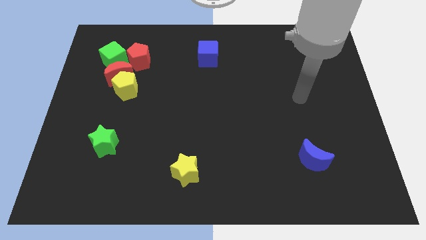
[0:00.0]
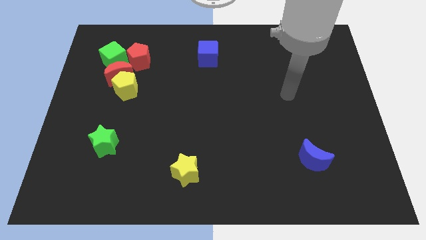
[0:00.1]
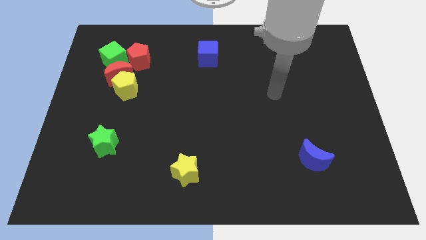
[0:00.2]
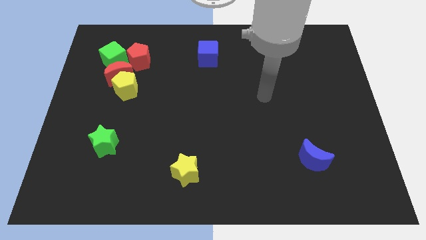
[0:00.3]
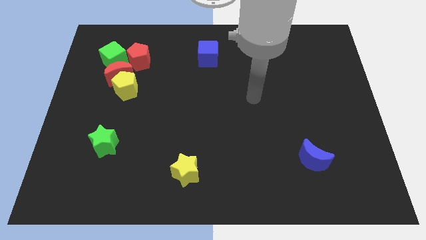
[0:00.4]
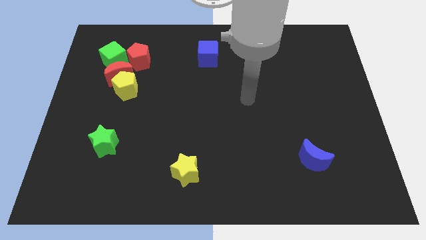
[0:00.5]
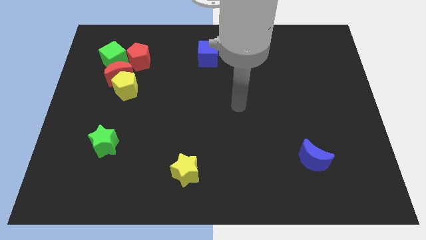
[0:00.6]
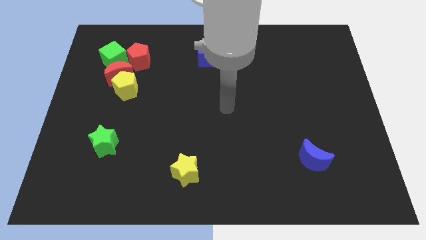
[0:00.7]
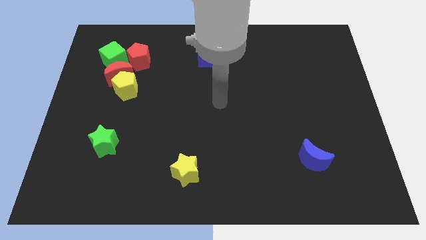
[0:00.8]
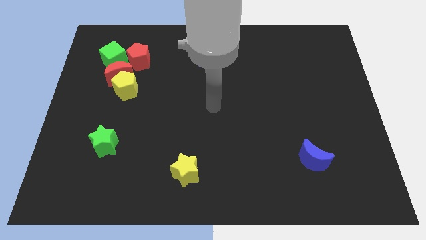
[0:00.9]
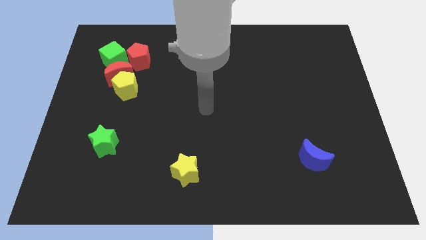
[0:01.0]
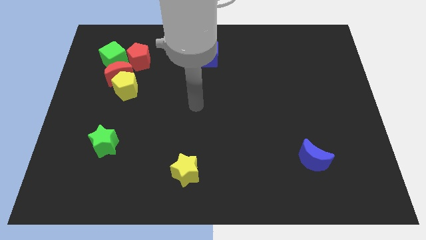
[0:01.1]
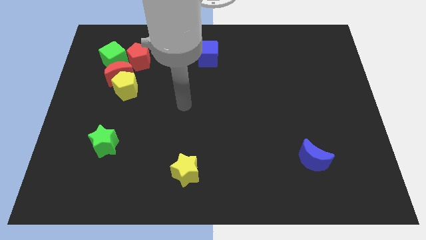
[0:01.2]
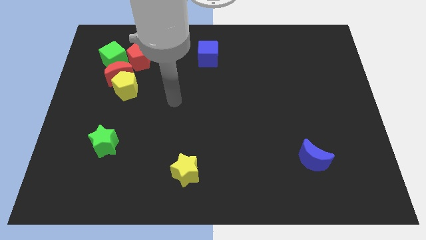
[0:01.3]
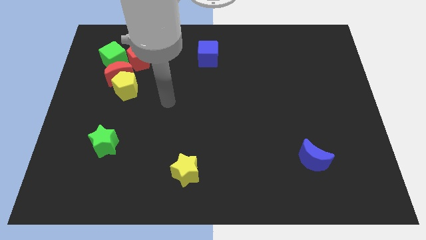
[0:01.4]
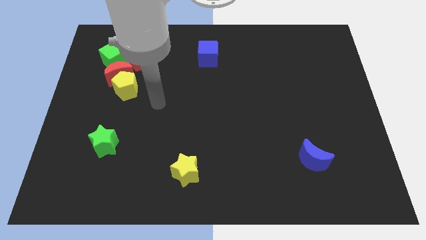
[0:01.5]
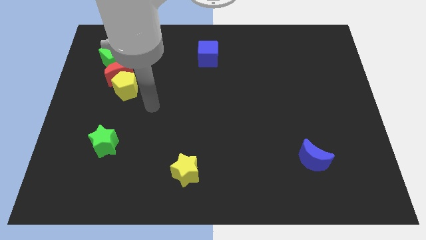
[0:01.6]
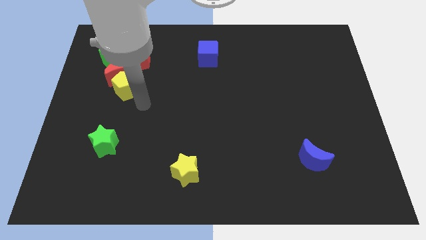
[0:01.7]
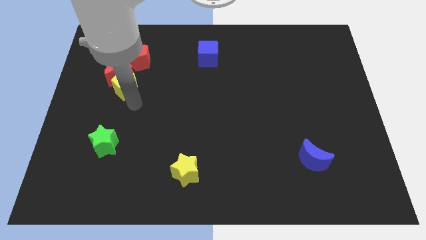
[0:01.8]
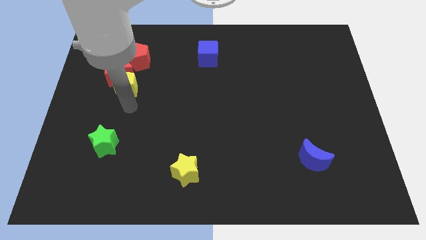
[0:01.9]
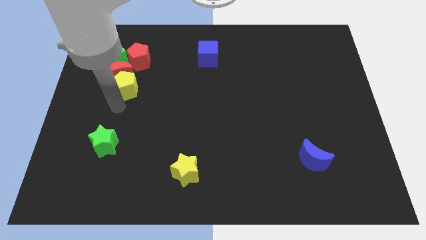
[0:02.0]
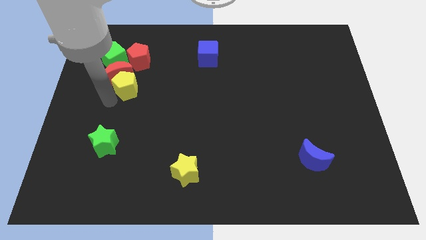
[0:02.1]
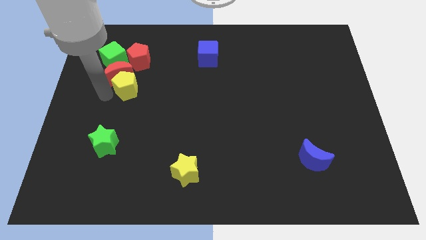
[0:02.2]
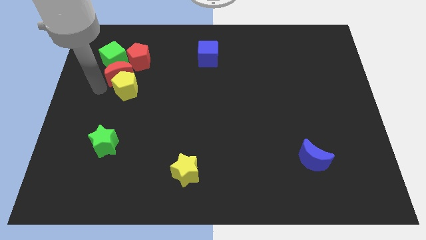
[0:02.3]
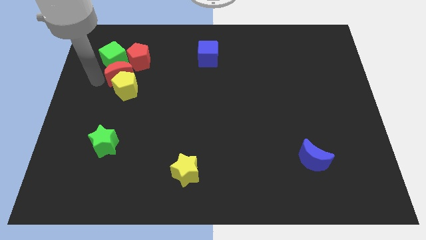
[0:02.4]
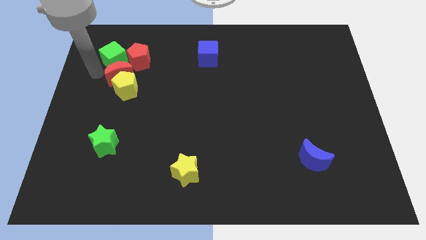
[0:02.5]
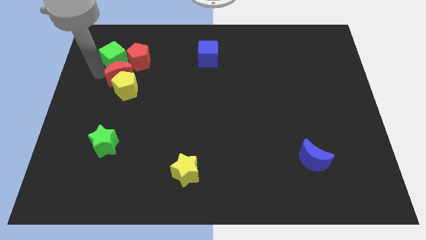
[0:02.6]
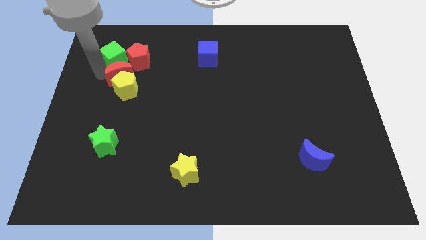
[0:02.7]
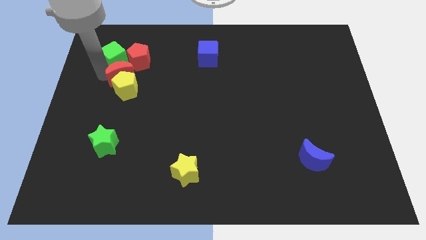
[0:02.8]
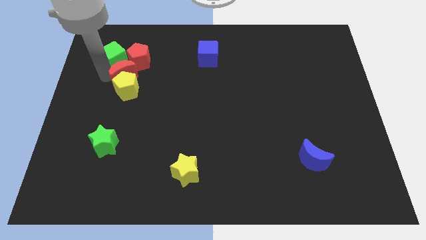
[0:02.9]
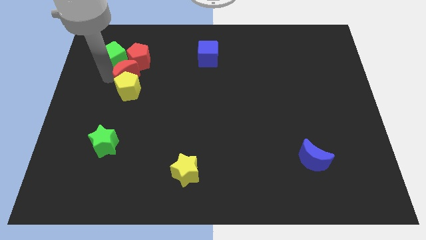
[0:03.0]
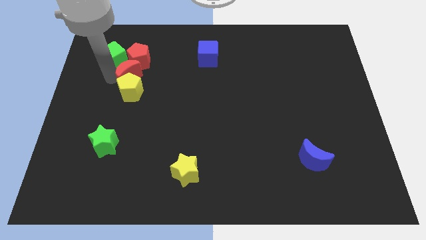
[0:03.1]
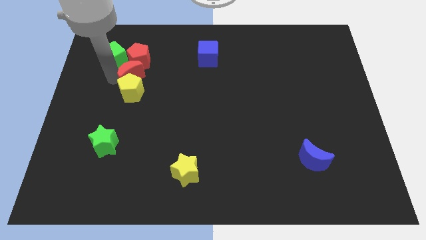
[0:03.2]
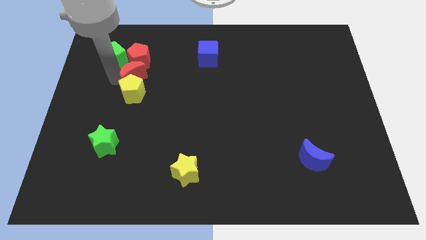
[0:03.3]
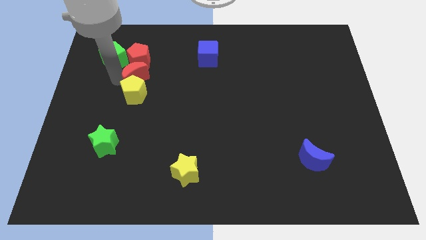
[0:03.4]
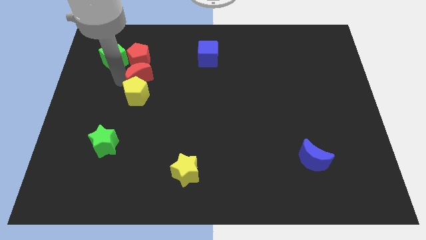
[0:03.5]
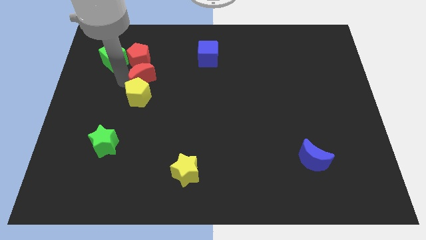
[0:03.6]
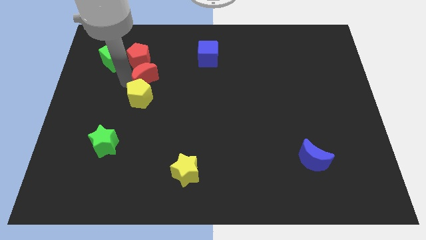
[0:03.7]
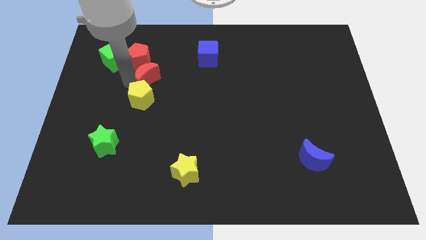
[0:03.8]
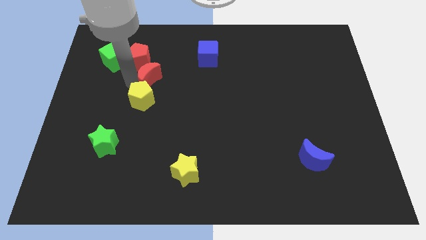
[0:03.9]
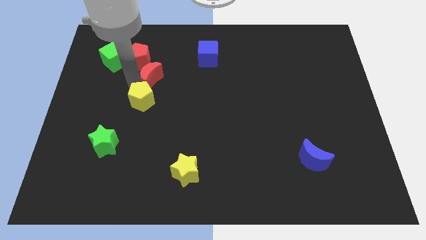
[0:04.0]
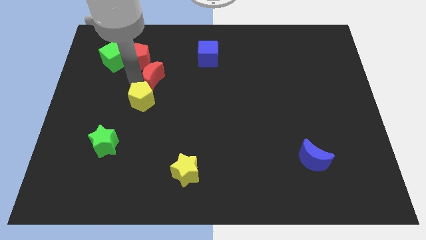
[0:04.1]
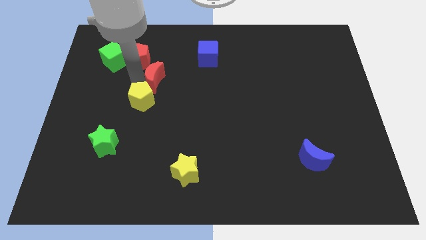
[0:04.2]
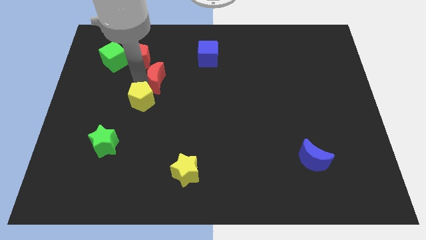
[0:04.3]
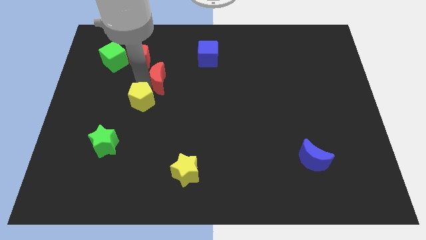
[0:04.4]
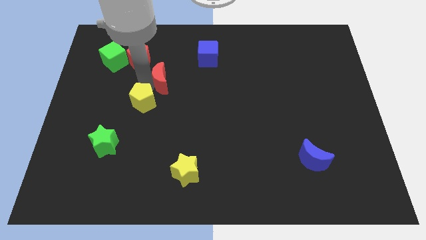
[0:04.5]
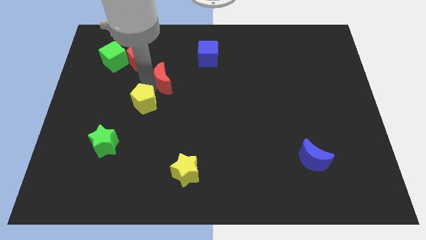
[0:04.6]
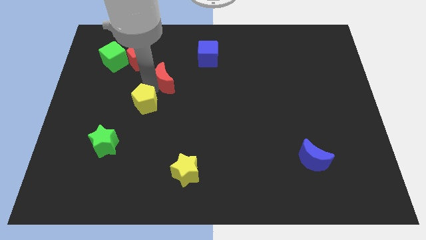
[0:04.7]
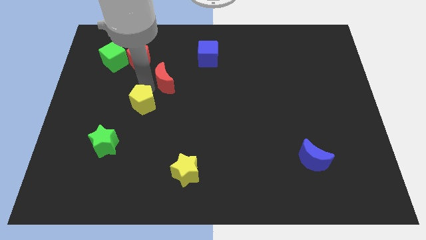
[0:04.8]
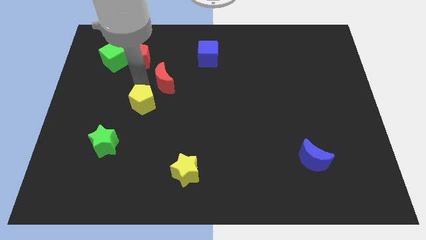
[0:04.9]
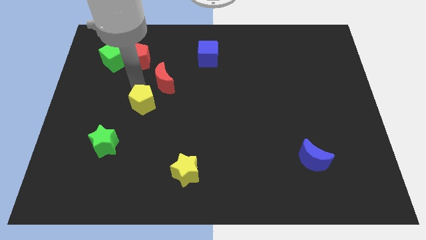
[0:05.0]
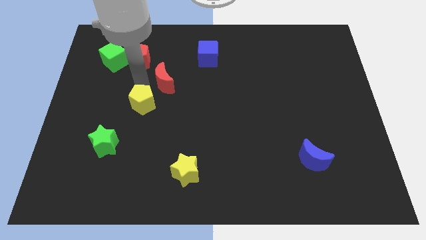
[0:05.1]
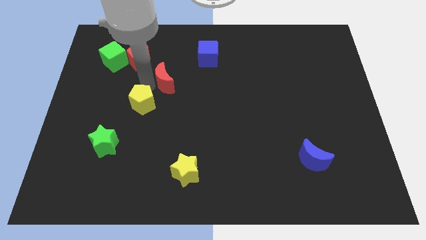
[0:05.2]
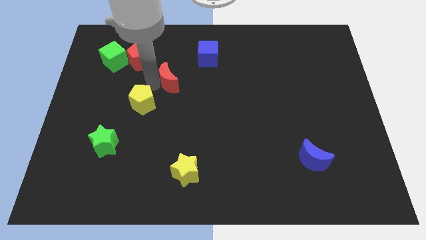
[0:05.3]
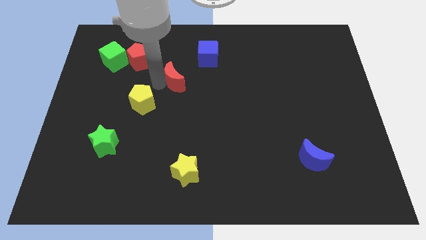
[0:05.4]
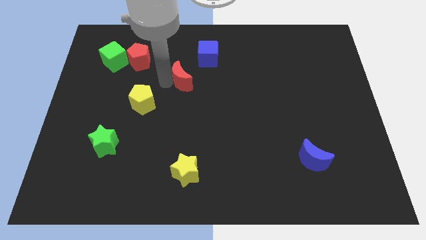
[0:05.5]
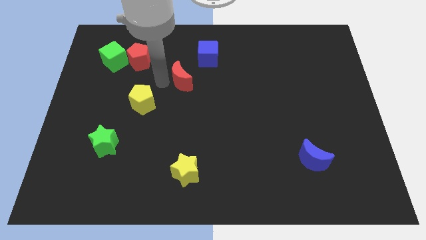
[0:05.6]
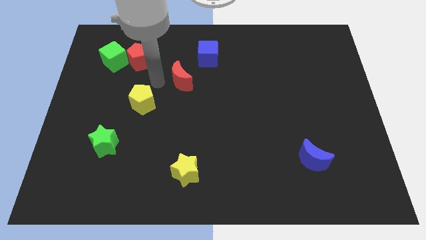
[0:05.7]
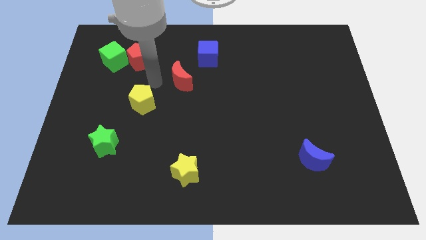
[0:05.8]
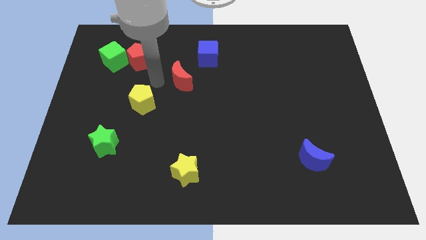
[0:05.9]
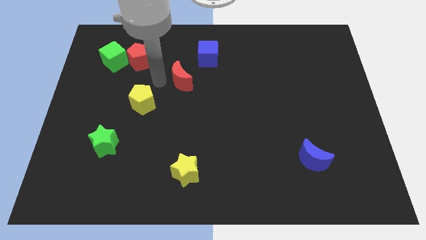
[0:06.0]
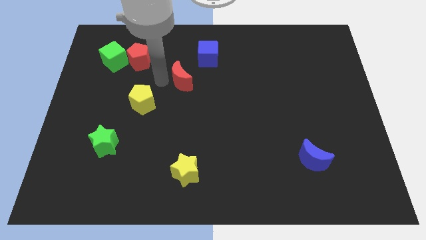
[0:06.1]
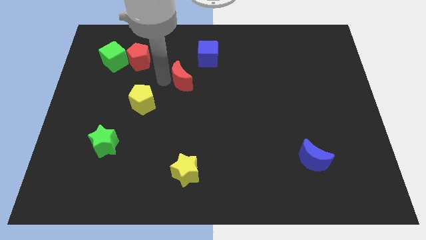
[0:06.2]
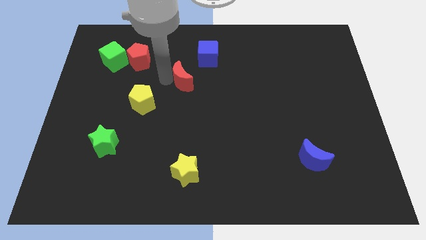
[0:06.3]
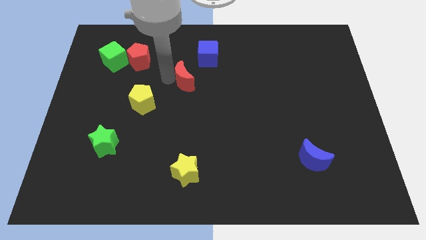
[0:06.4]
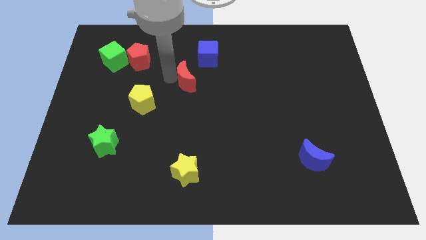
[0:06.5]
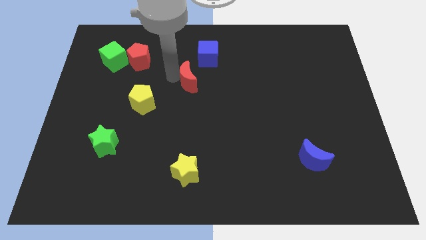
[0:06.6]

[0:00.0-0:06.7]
move the red moon to the bottom of the blue cube

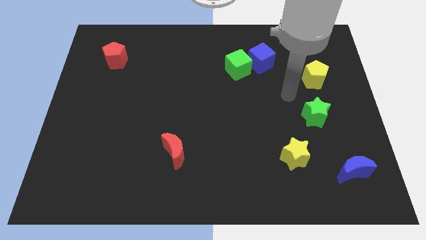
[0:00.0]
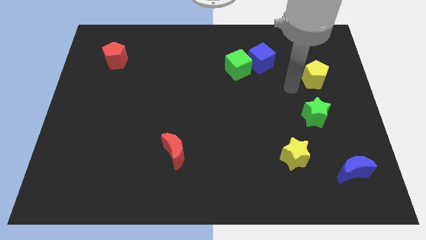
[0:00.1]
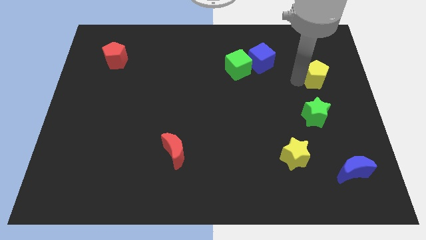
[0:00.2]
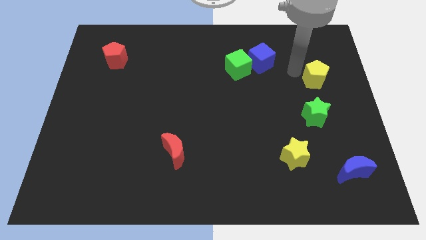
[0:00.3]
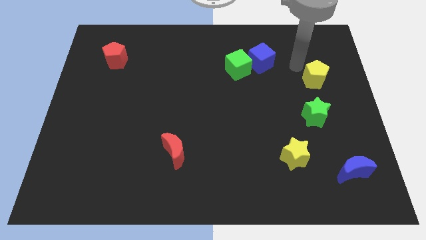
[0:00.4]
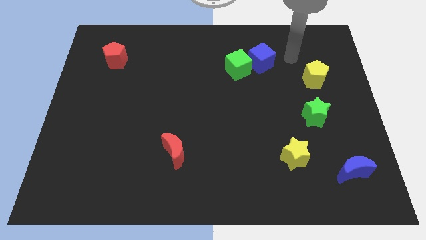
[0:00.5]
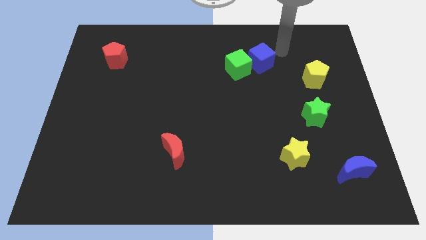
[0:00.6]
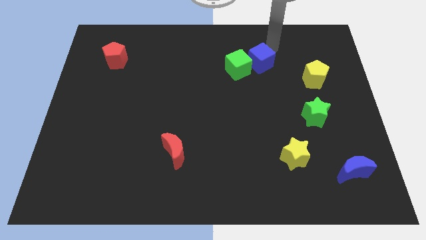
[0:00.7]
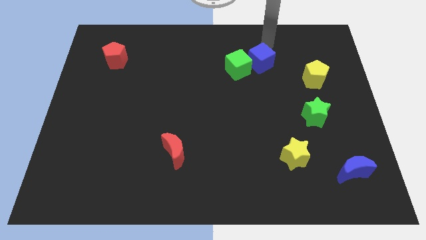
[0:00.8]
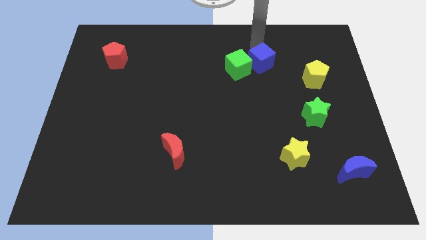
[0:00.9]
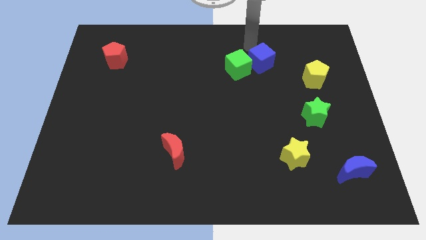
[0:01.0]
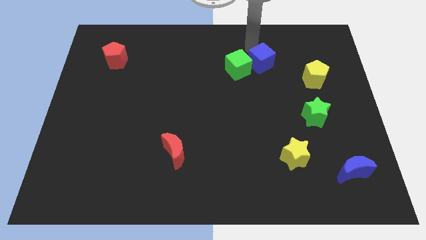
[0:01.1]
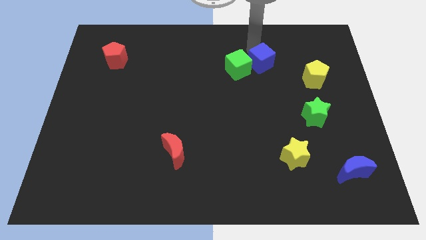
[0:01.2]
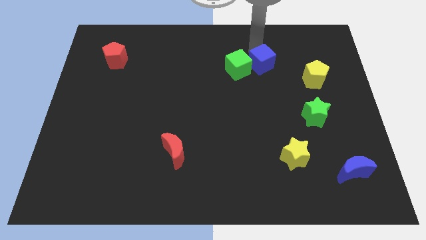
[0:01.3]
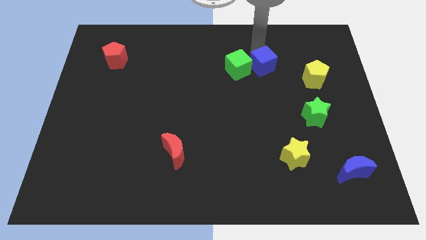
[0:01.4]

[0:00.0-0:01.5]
put the blue cube left of the yellow pentagon
